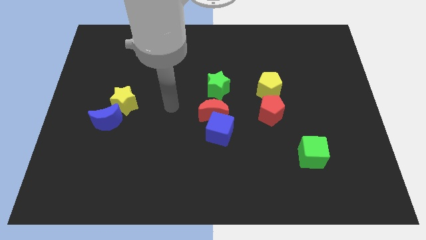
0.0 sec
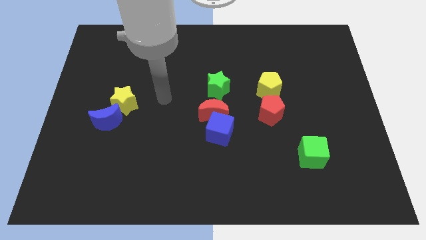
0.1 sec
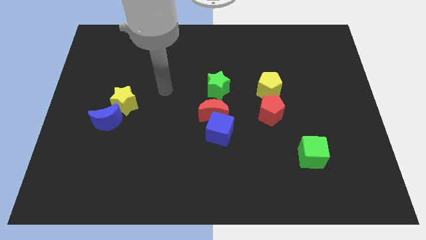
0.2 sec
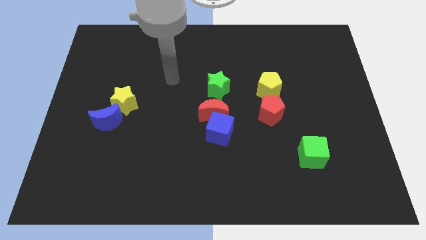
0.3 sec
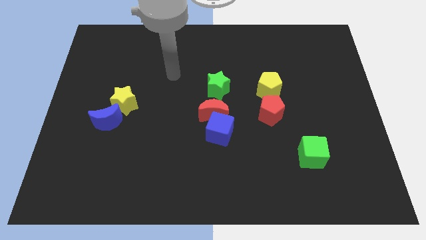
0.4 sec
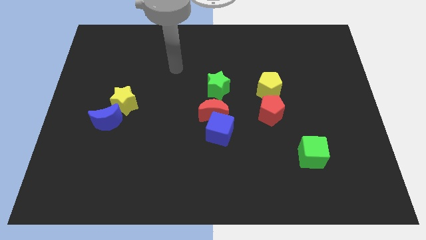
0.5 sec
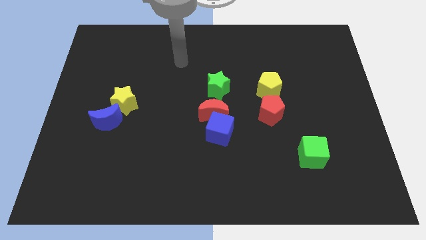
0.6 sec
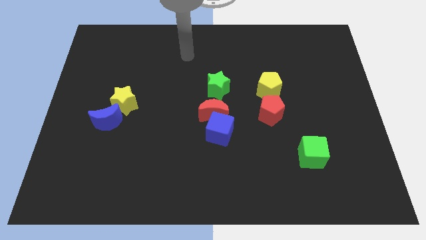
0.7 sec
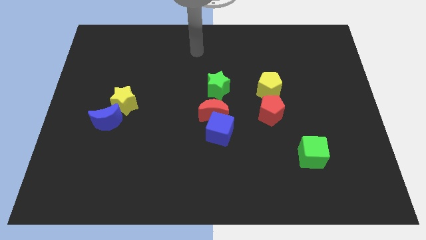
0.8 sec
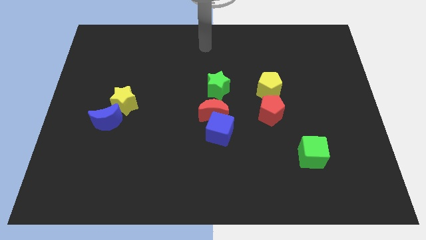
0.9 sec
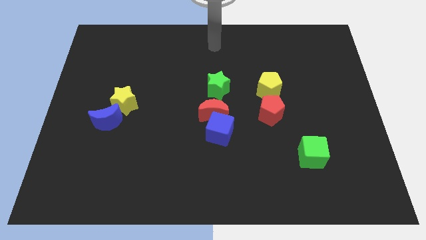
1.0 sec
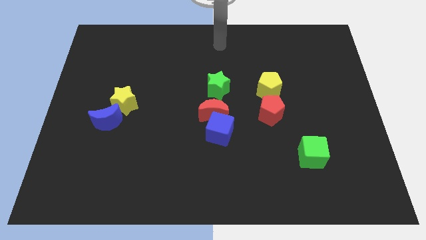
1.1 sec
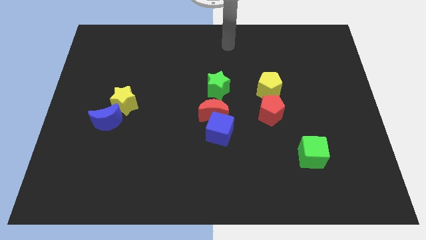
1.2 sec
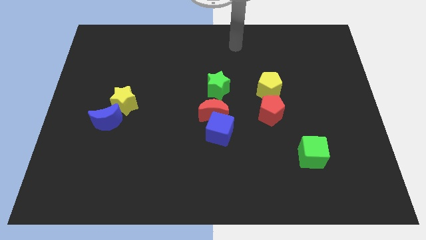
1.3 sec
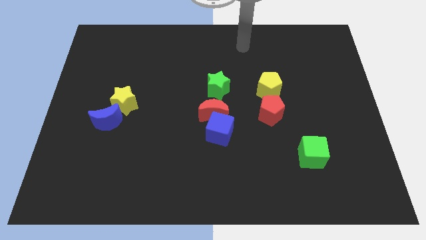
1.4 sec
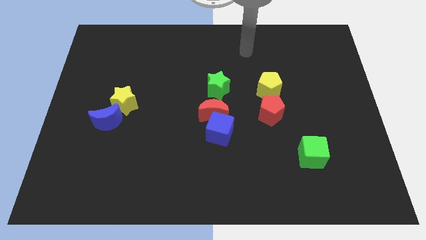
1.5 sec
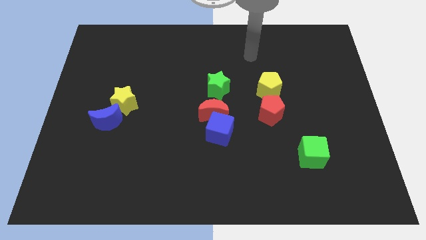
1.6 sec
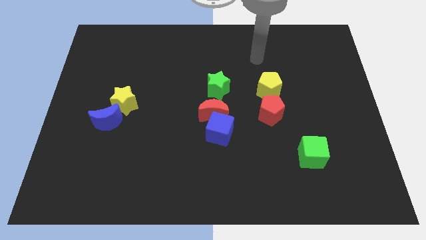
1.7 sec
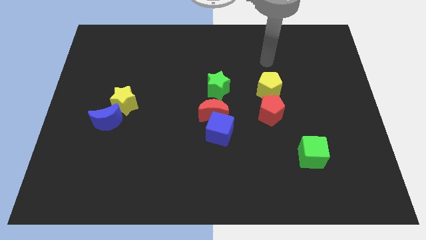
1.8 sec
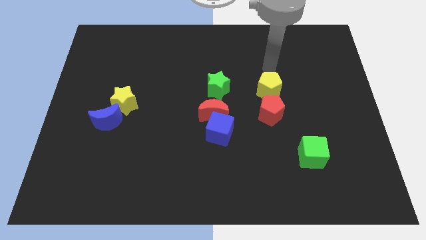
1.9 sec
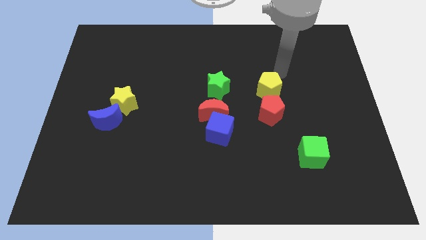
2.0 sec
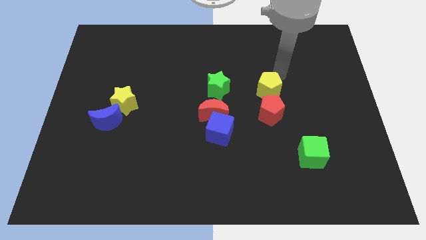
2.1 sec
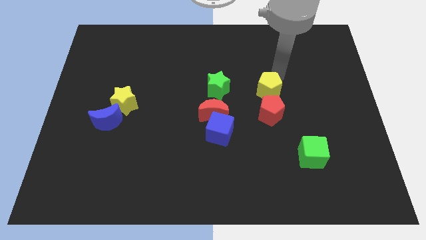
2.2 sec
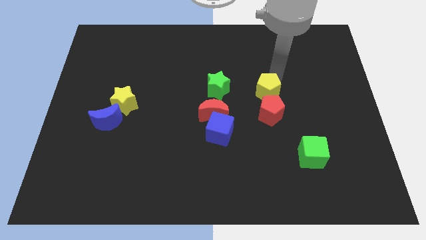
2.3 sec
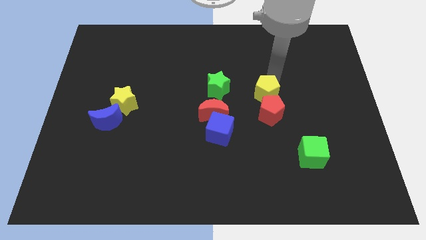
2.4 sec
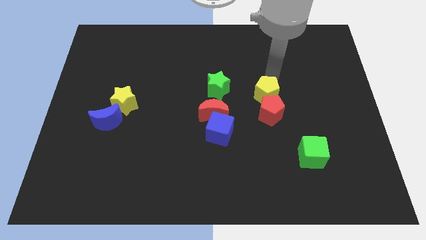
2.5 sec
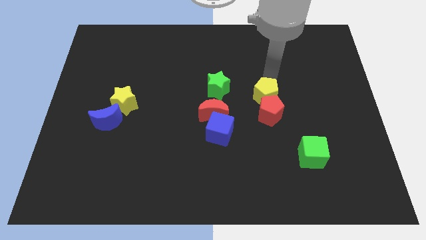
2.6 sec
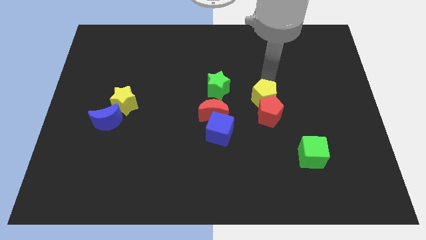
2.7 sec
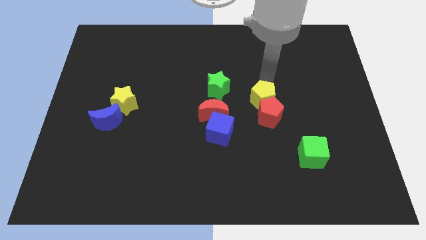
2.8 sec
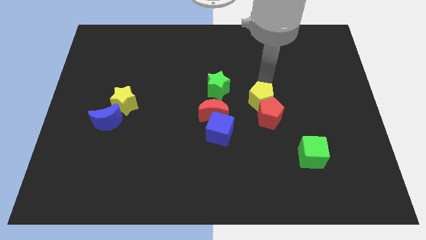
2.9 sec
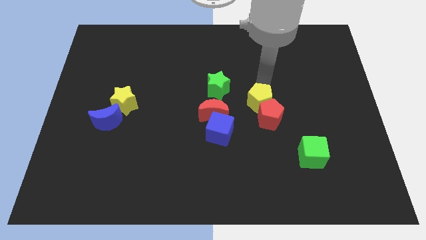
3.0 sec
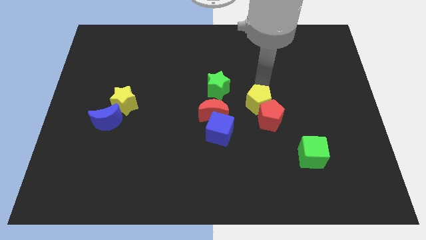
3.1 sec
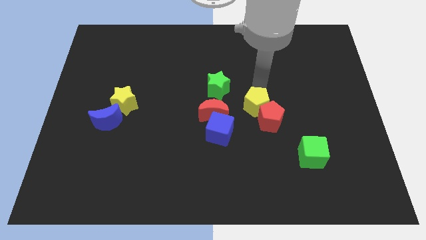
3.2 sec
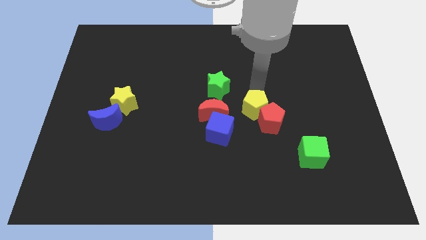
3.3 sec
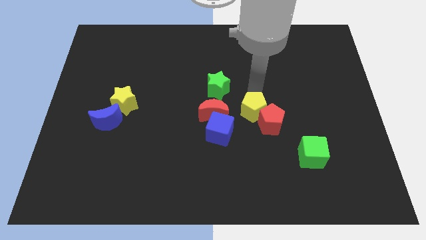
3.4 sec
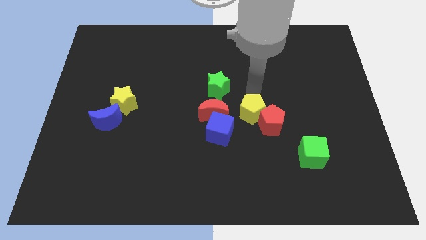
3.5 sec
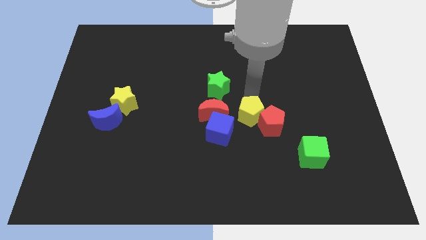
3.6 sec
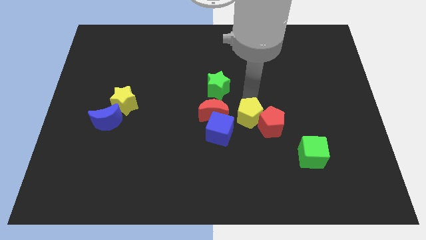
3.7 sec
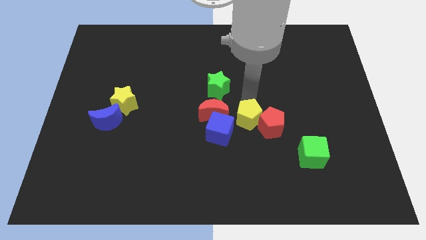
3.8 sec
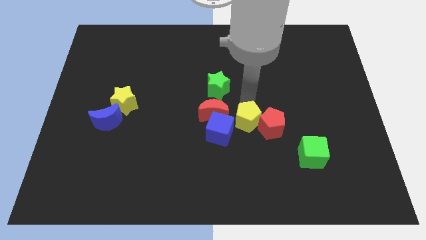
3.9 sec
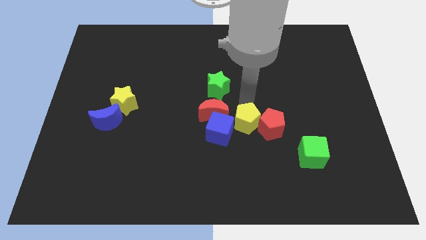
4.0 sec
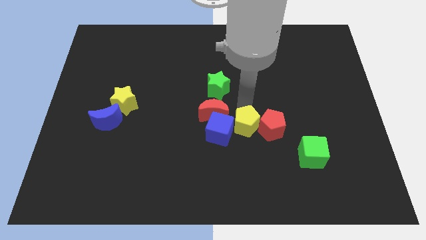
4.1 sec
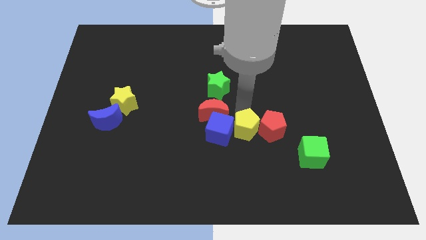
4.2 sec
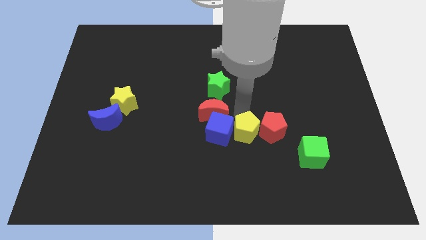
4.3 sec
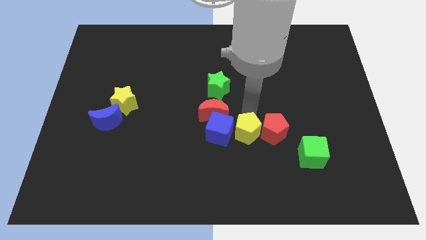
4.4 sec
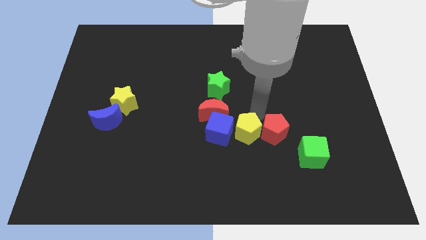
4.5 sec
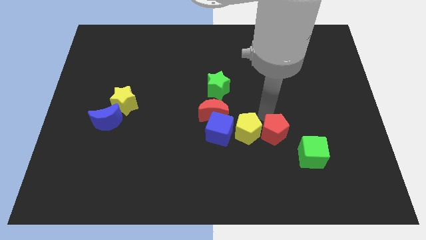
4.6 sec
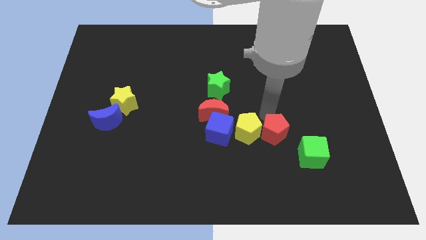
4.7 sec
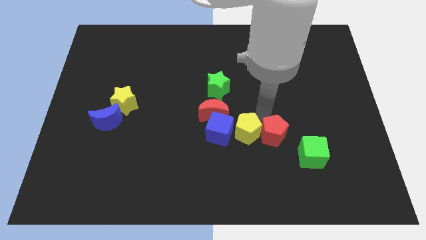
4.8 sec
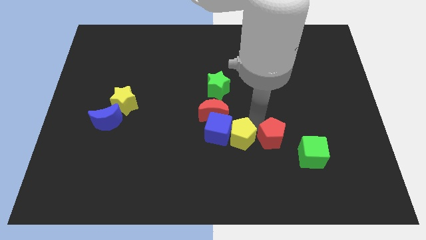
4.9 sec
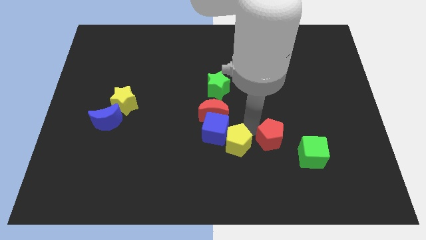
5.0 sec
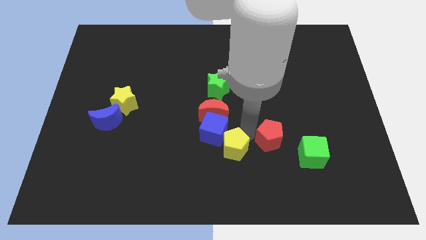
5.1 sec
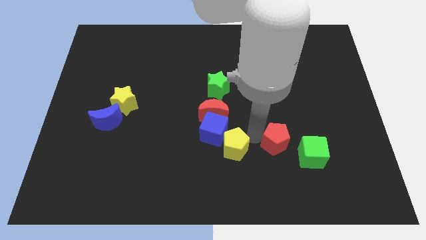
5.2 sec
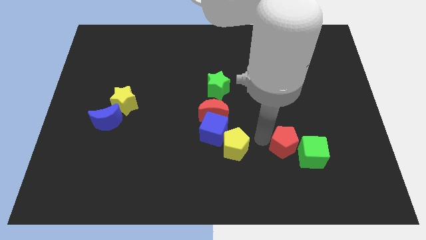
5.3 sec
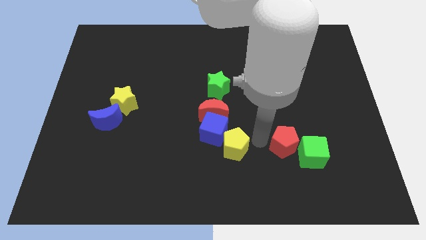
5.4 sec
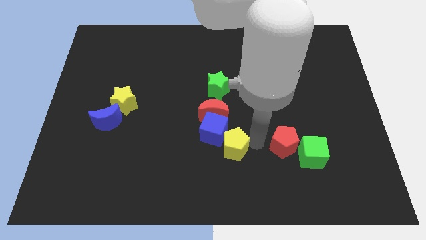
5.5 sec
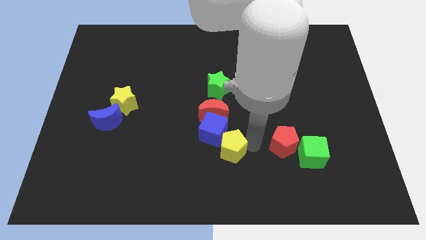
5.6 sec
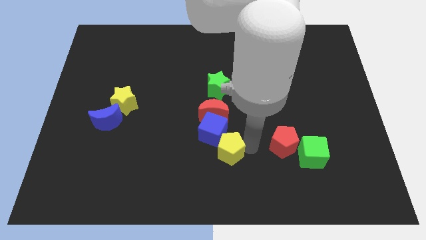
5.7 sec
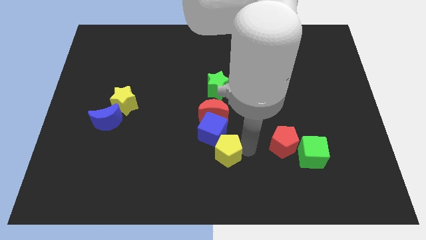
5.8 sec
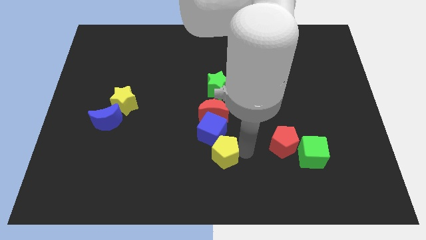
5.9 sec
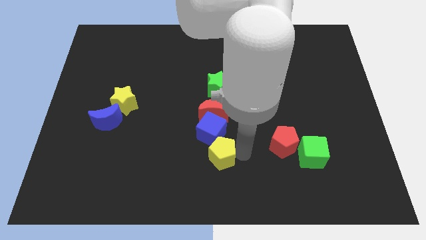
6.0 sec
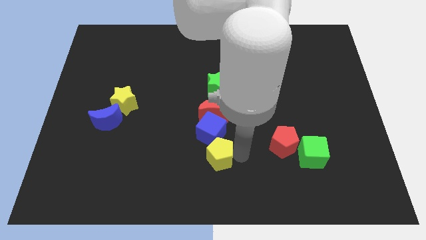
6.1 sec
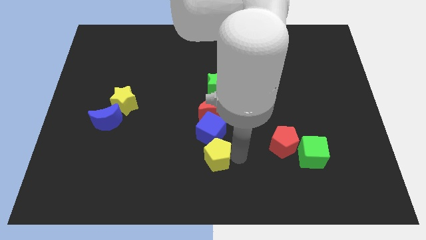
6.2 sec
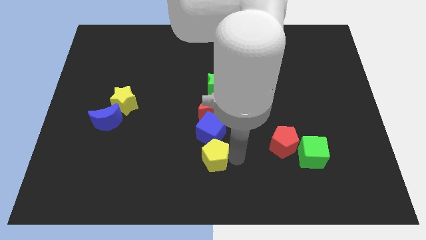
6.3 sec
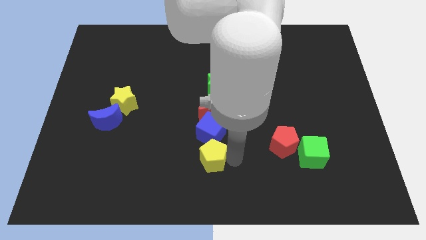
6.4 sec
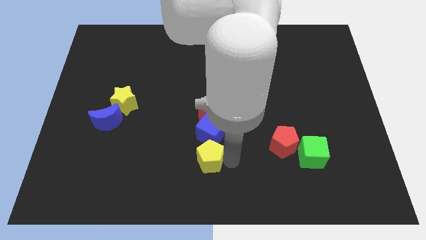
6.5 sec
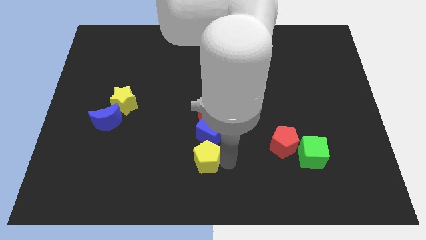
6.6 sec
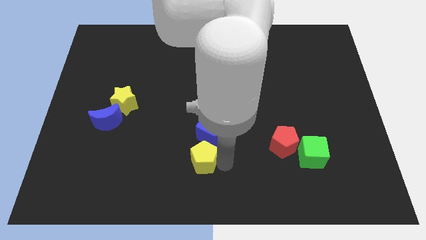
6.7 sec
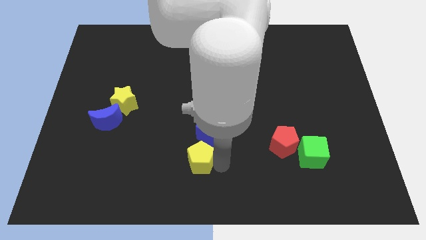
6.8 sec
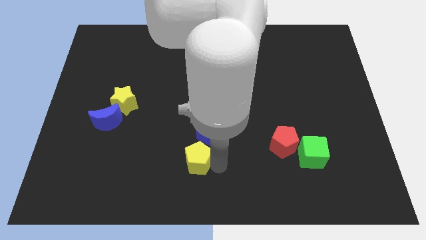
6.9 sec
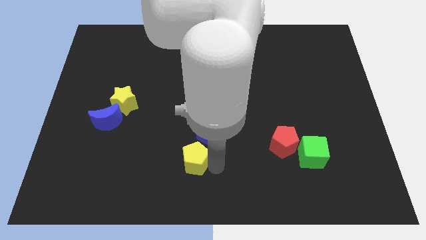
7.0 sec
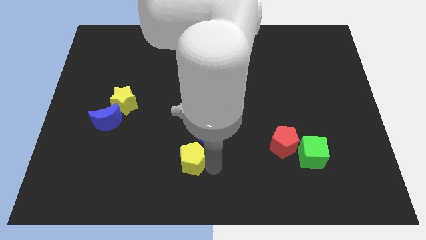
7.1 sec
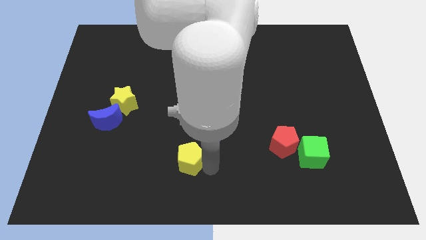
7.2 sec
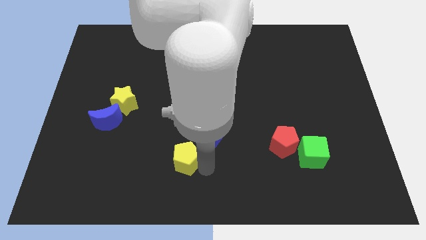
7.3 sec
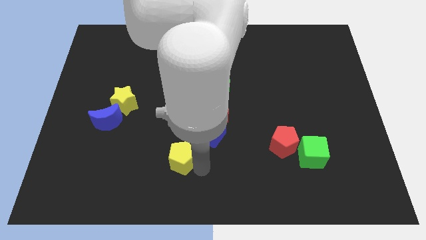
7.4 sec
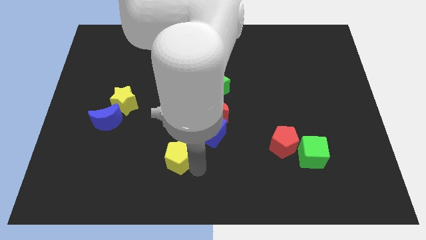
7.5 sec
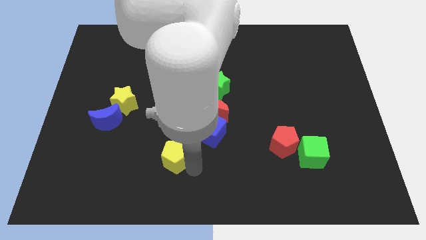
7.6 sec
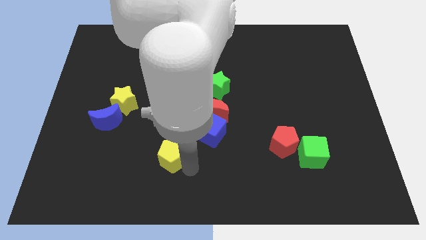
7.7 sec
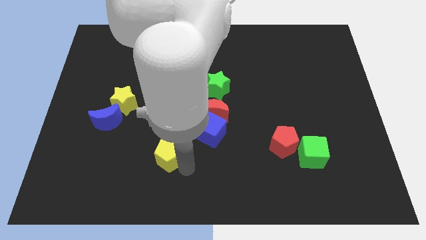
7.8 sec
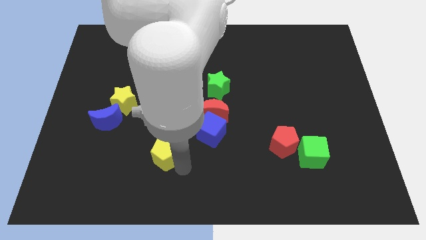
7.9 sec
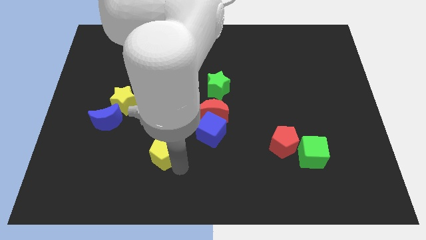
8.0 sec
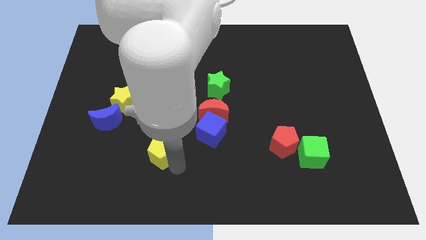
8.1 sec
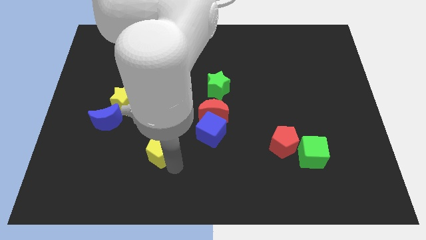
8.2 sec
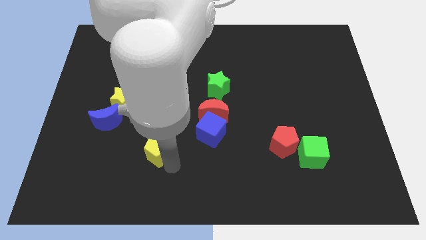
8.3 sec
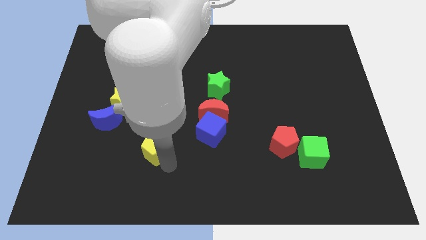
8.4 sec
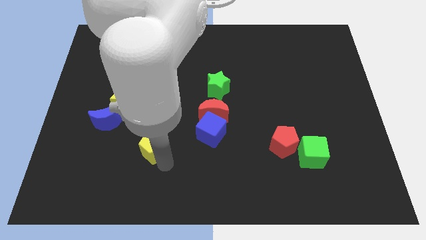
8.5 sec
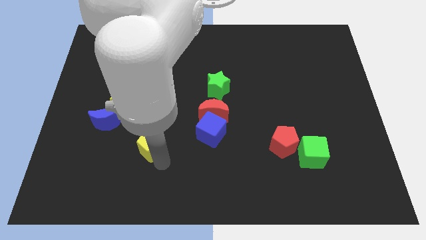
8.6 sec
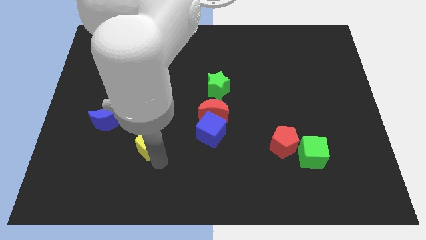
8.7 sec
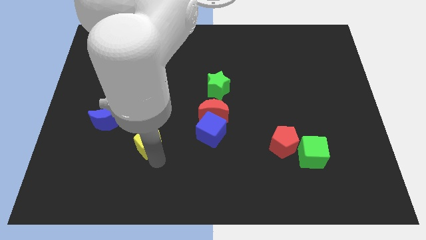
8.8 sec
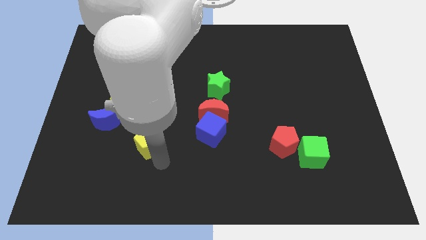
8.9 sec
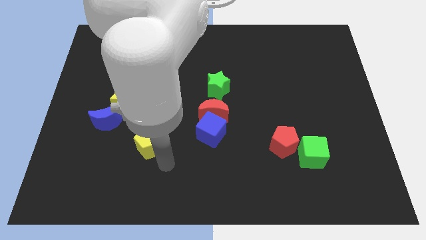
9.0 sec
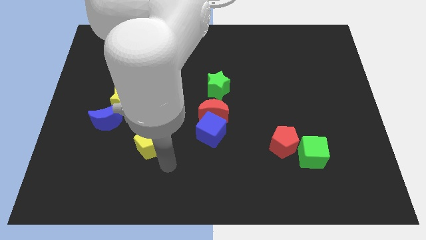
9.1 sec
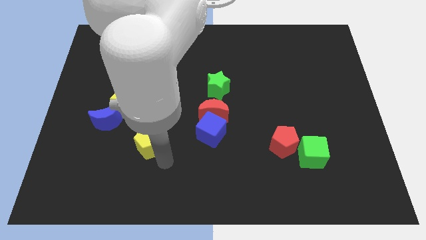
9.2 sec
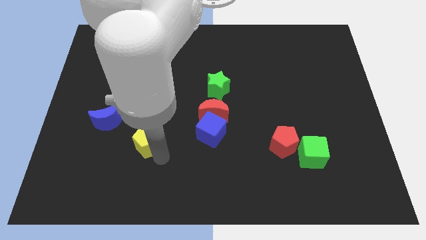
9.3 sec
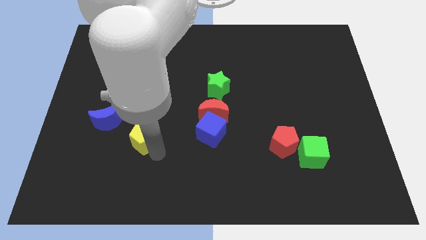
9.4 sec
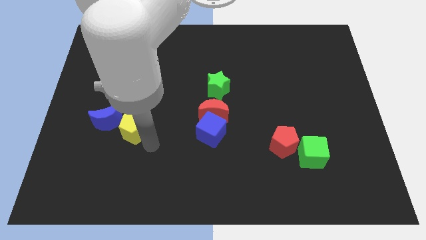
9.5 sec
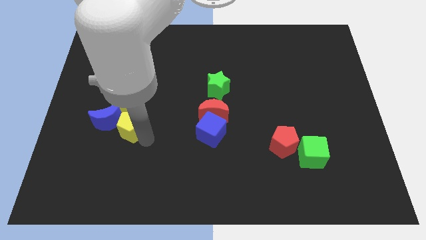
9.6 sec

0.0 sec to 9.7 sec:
push the yellow pentagon towards the blue moon
